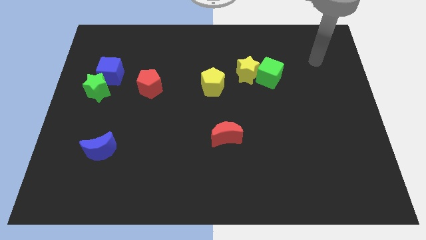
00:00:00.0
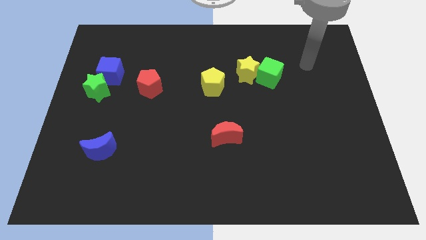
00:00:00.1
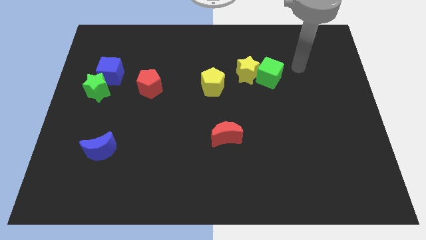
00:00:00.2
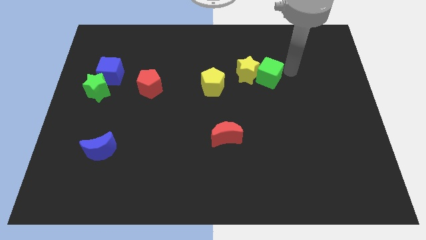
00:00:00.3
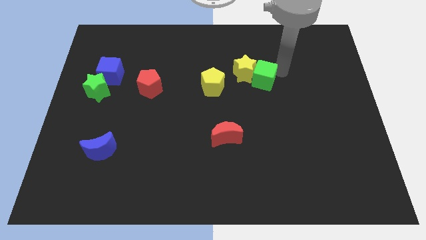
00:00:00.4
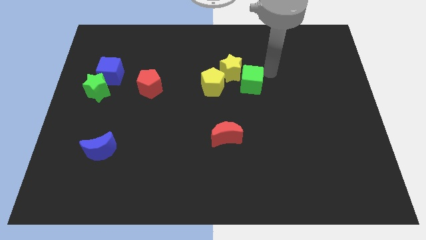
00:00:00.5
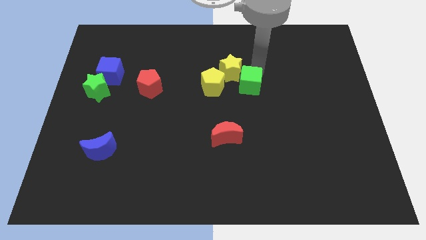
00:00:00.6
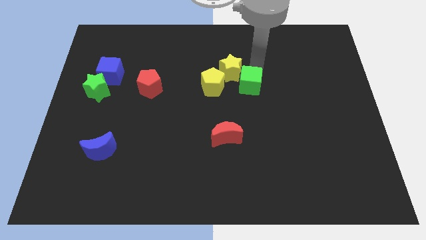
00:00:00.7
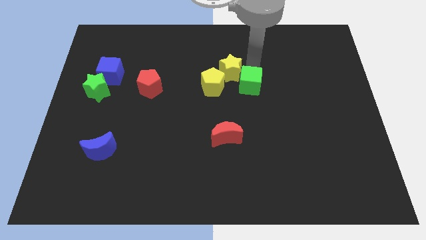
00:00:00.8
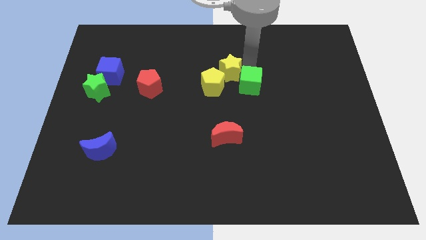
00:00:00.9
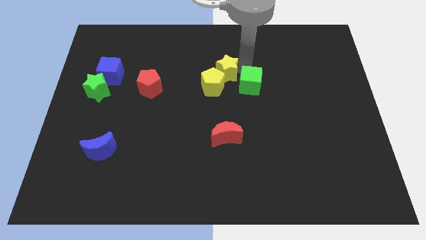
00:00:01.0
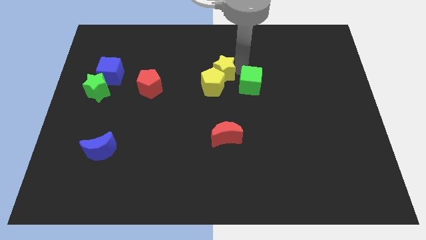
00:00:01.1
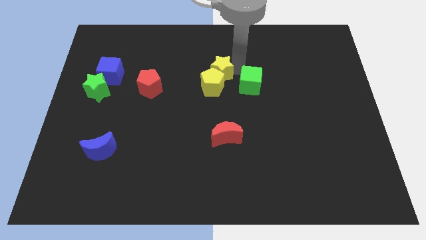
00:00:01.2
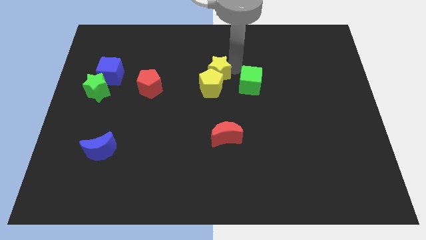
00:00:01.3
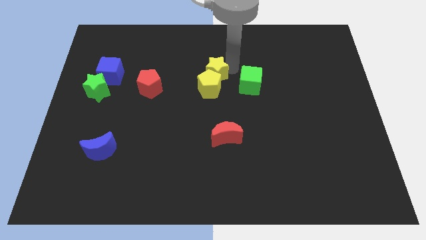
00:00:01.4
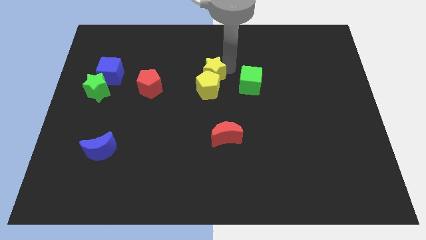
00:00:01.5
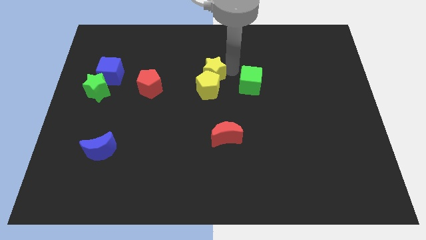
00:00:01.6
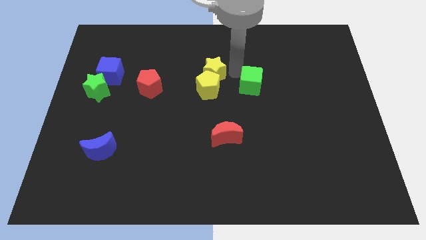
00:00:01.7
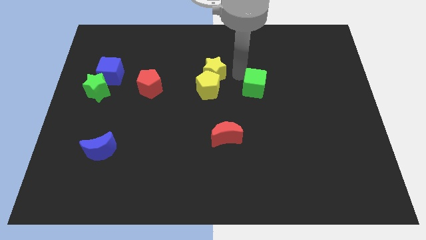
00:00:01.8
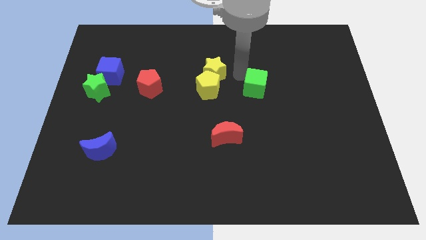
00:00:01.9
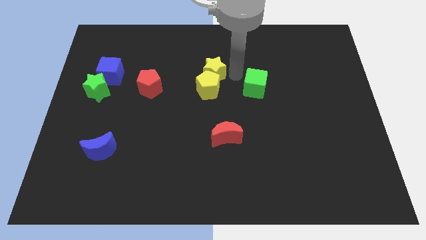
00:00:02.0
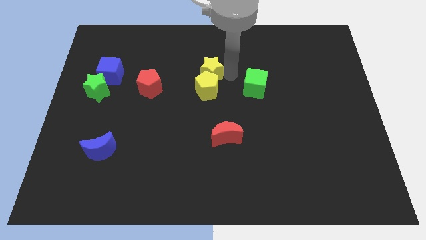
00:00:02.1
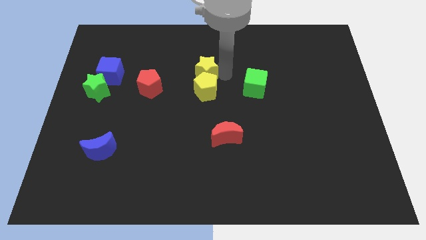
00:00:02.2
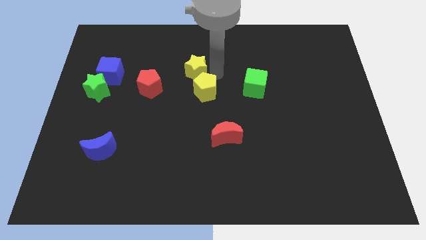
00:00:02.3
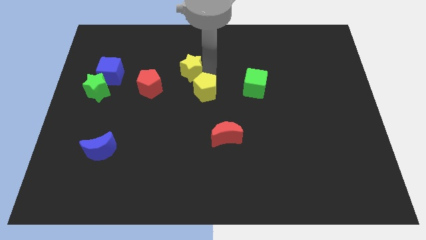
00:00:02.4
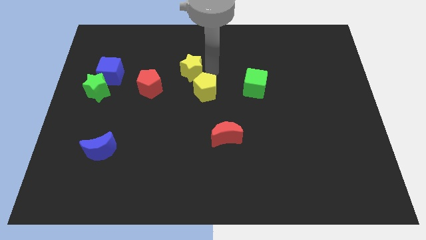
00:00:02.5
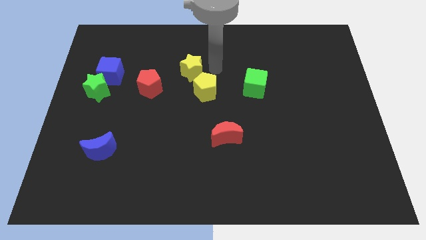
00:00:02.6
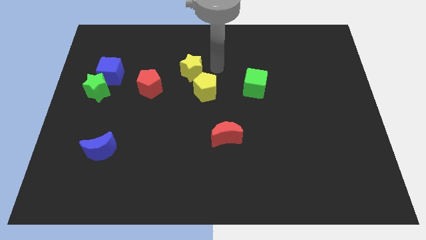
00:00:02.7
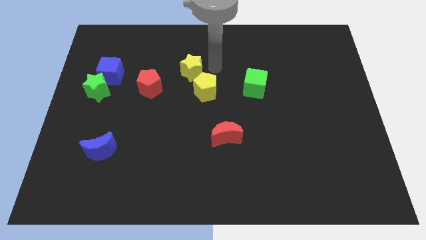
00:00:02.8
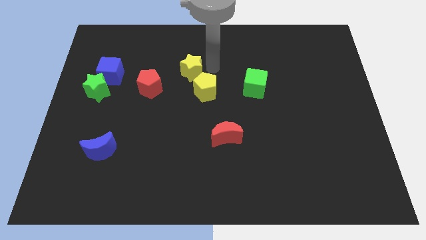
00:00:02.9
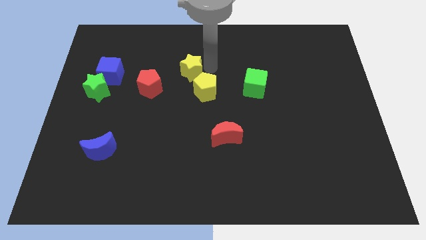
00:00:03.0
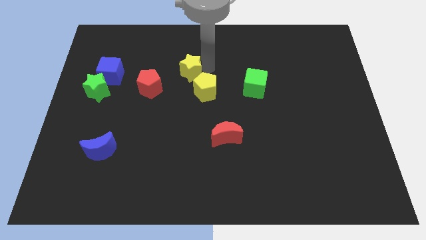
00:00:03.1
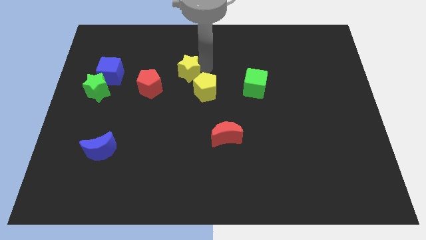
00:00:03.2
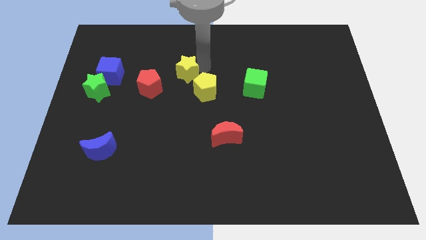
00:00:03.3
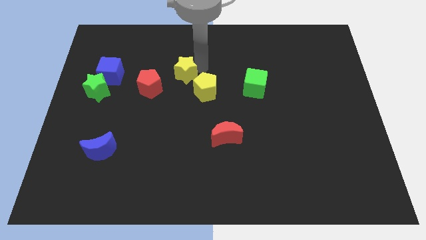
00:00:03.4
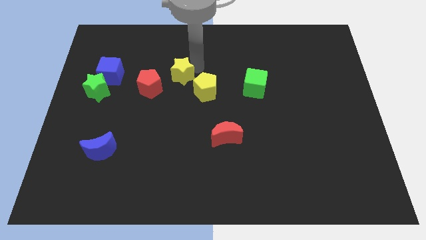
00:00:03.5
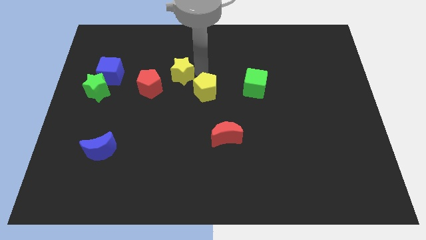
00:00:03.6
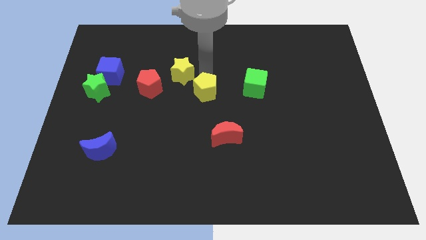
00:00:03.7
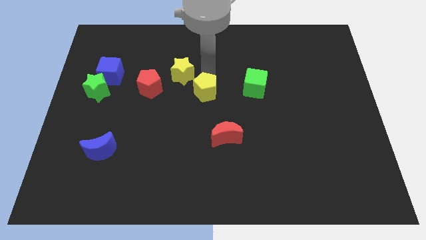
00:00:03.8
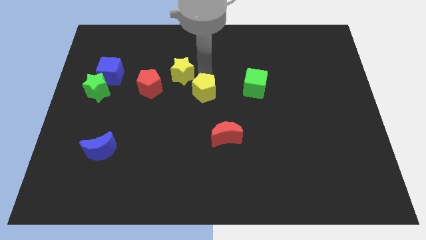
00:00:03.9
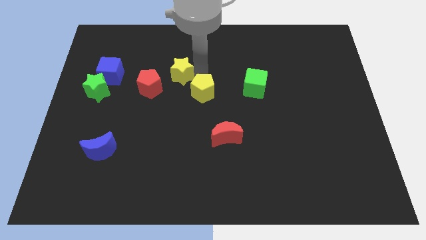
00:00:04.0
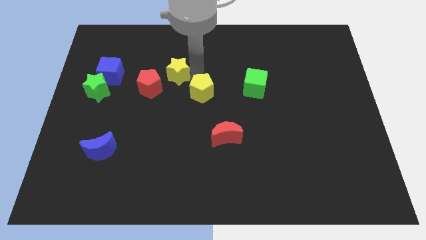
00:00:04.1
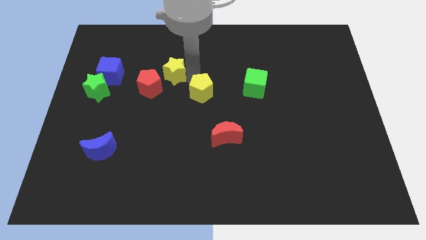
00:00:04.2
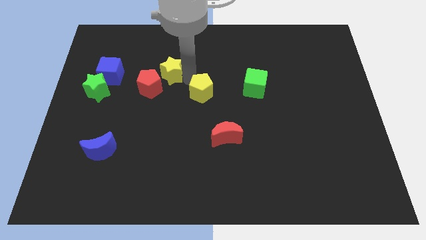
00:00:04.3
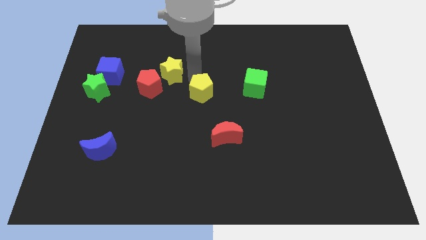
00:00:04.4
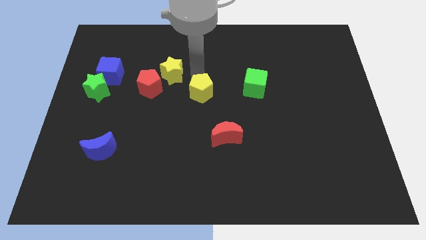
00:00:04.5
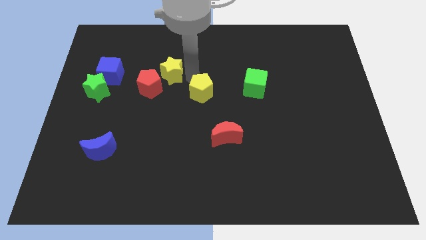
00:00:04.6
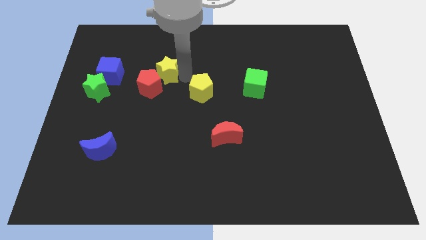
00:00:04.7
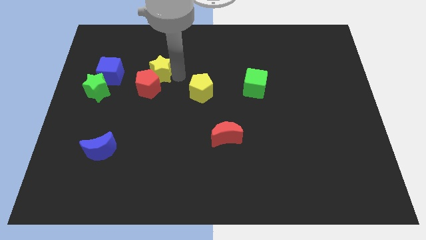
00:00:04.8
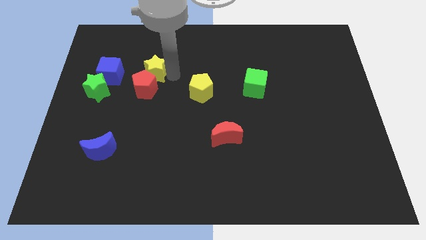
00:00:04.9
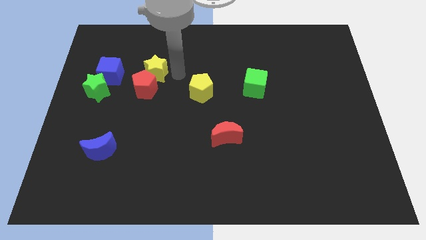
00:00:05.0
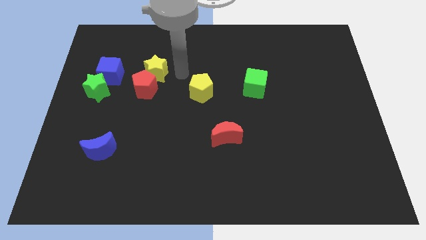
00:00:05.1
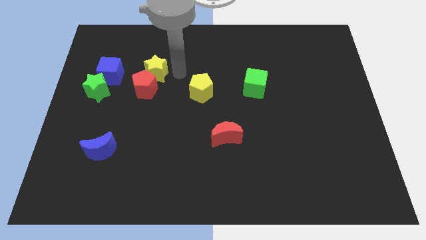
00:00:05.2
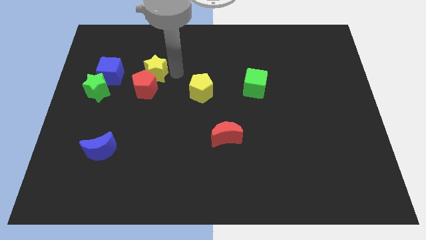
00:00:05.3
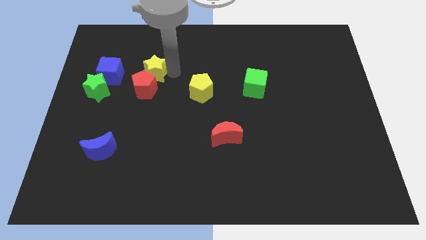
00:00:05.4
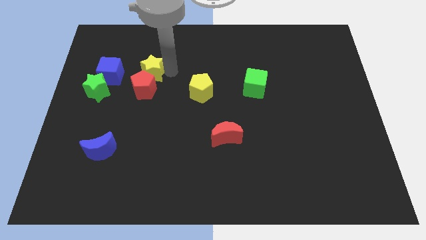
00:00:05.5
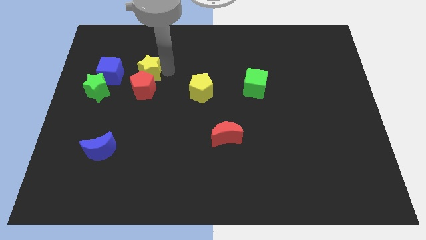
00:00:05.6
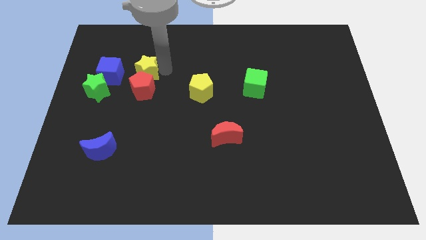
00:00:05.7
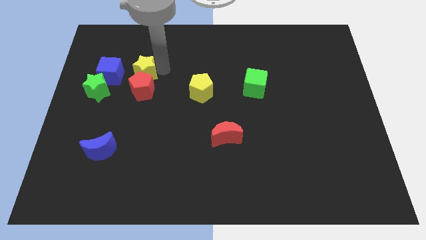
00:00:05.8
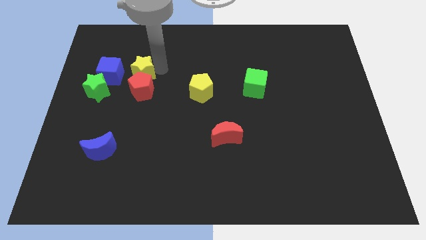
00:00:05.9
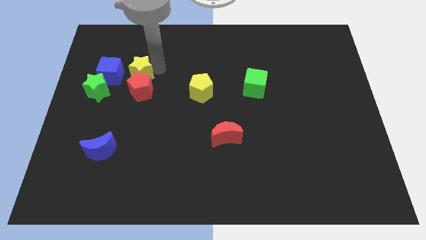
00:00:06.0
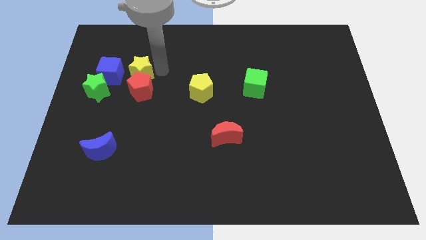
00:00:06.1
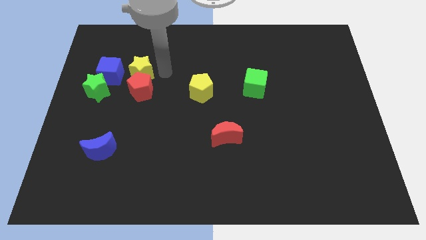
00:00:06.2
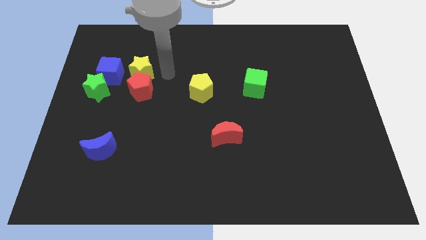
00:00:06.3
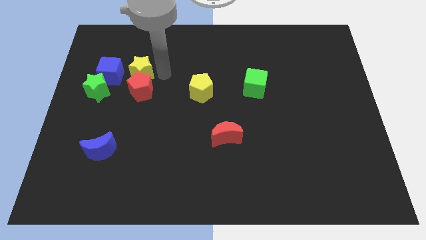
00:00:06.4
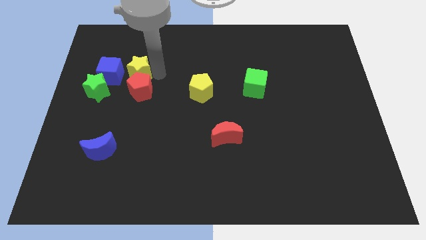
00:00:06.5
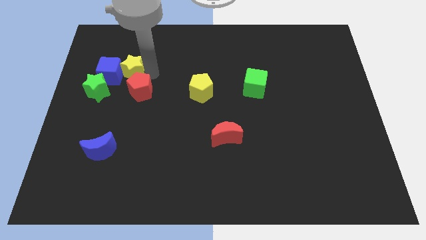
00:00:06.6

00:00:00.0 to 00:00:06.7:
put the yellow star close to the blue cube

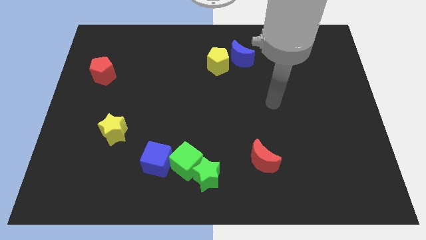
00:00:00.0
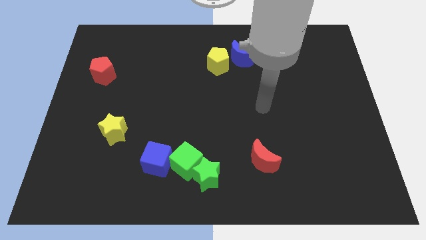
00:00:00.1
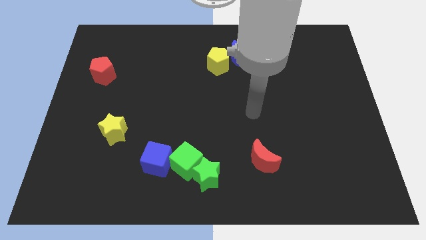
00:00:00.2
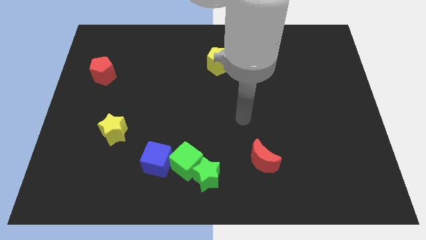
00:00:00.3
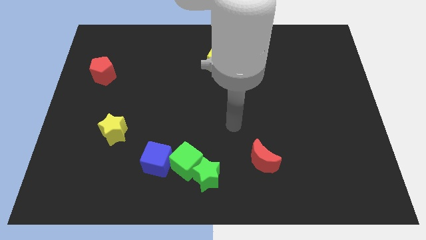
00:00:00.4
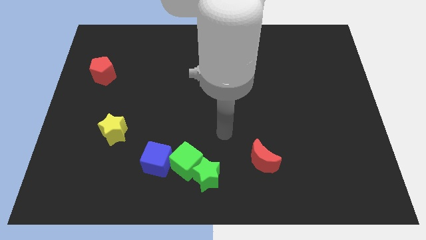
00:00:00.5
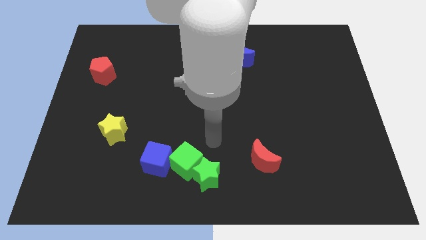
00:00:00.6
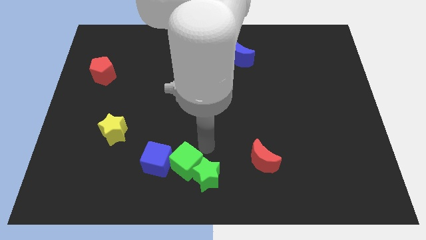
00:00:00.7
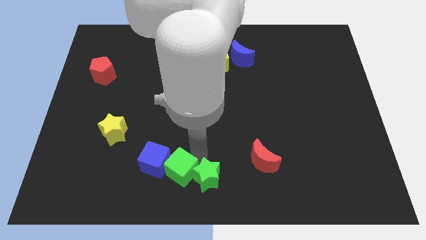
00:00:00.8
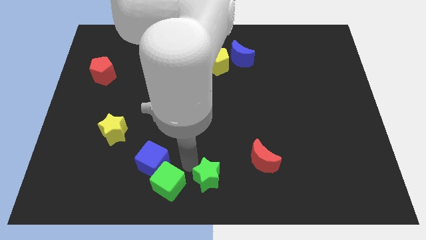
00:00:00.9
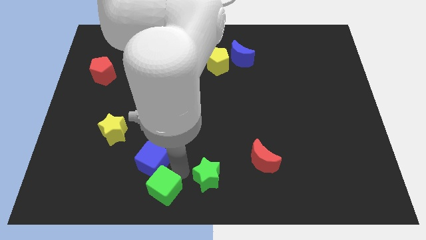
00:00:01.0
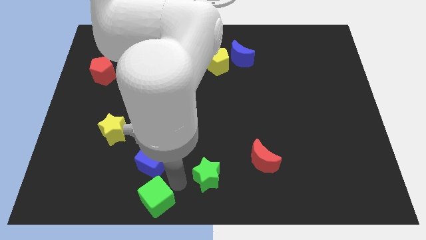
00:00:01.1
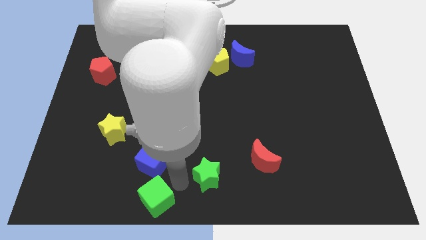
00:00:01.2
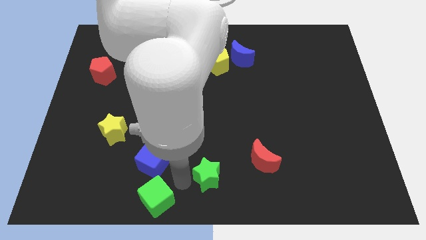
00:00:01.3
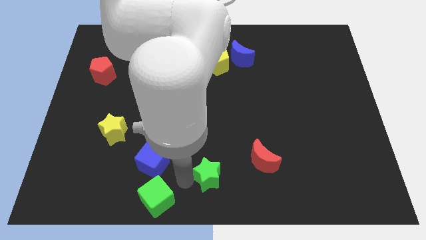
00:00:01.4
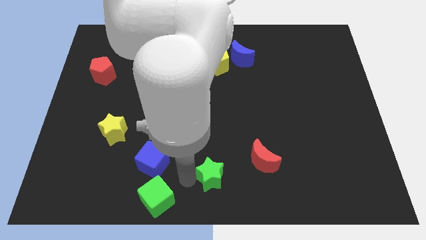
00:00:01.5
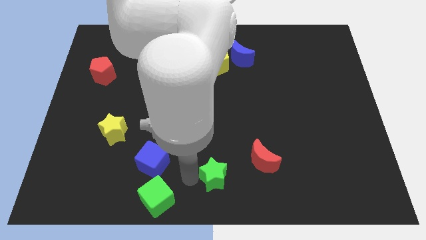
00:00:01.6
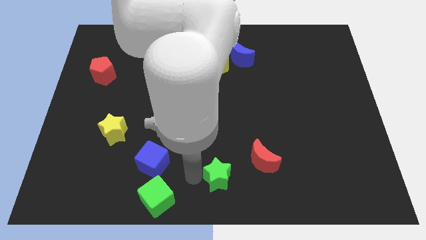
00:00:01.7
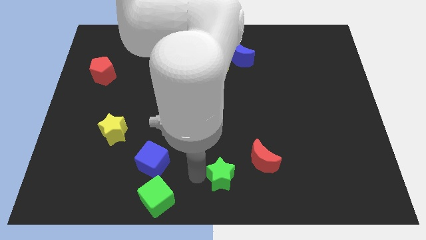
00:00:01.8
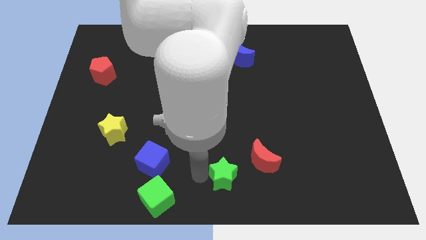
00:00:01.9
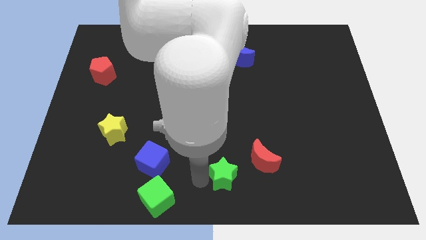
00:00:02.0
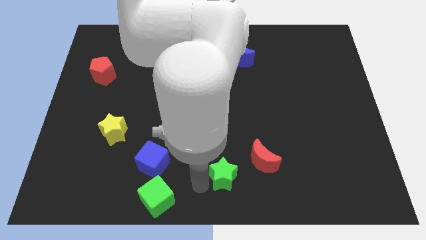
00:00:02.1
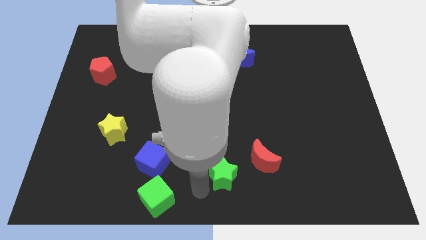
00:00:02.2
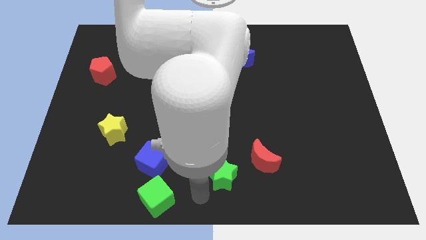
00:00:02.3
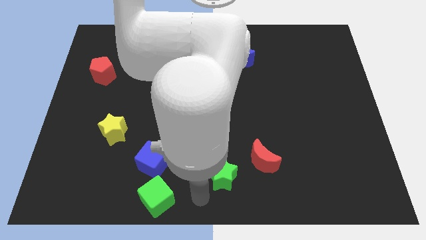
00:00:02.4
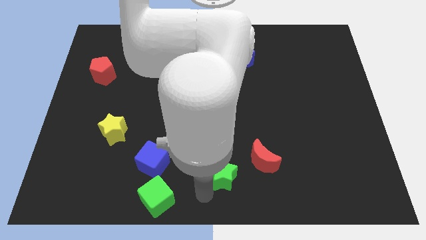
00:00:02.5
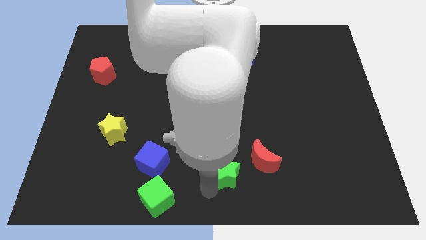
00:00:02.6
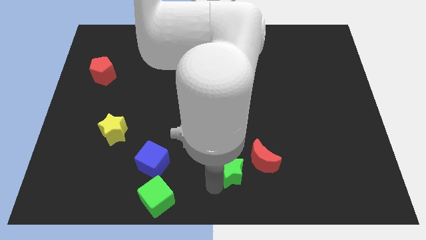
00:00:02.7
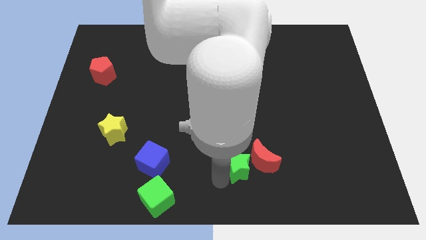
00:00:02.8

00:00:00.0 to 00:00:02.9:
slide the green star to the red moon
